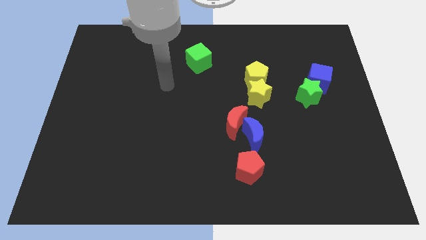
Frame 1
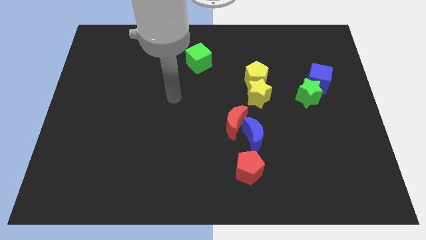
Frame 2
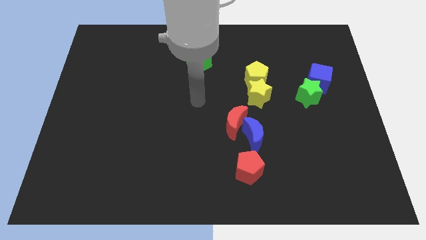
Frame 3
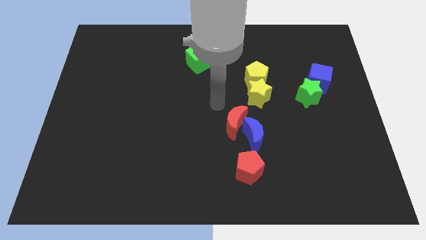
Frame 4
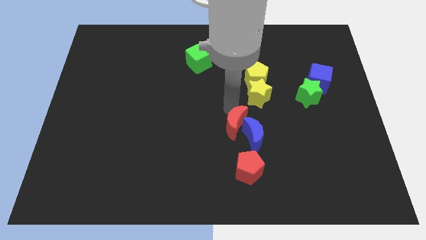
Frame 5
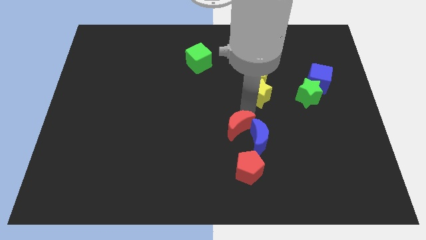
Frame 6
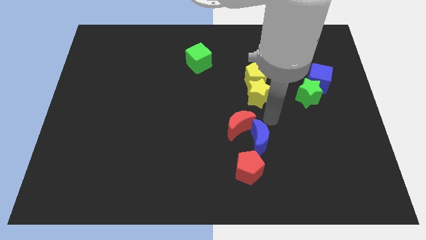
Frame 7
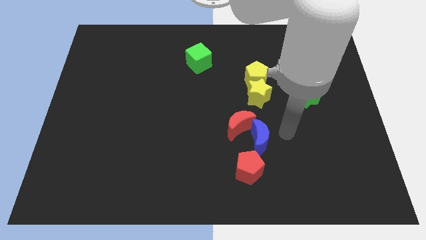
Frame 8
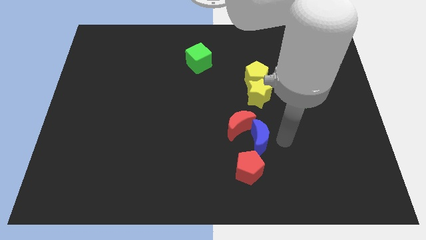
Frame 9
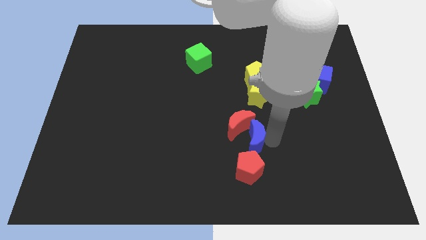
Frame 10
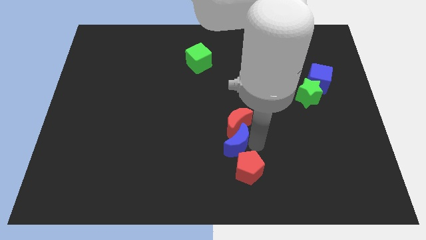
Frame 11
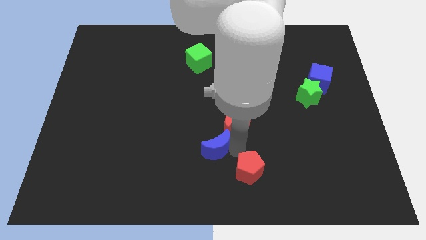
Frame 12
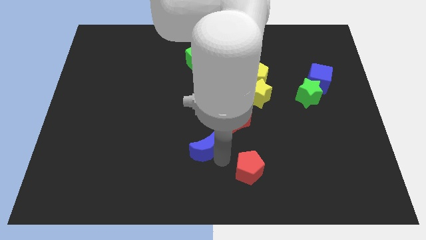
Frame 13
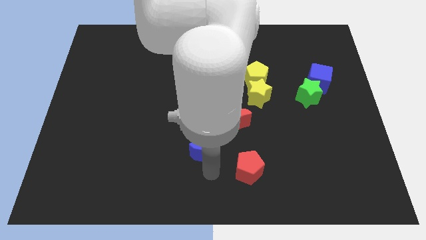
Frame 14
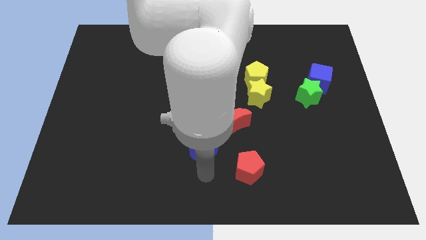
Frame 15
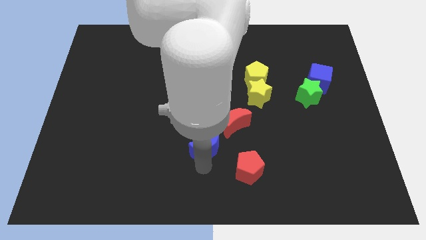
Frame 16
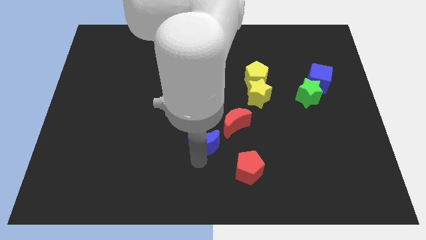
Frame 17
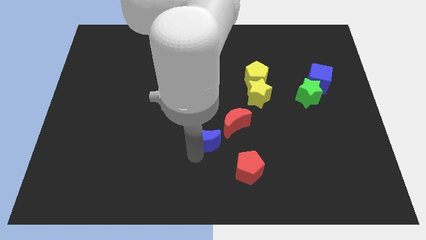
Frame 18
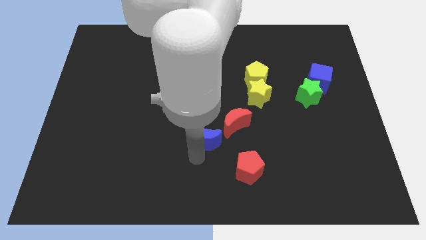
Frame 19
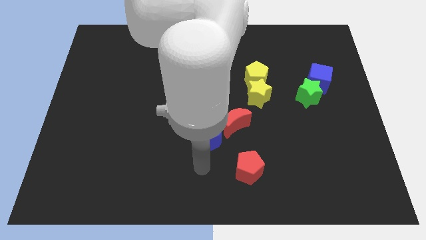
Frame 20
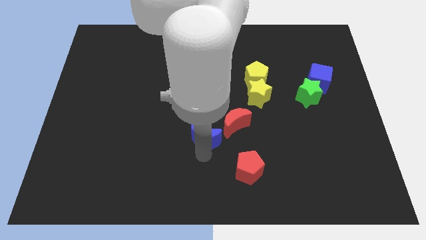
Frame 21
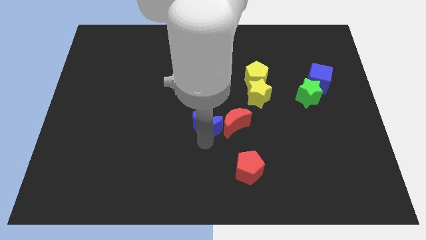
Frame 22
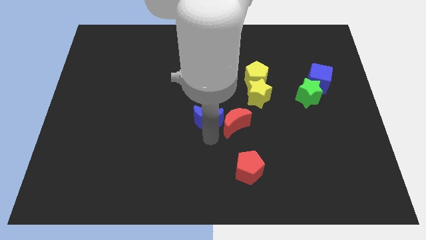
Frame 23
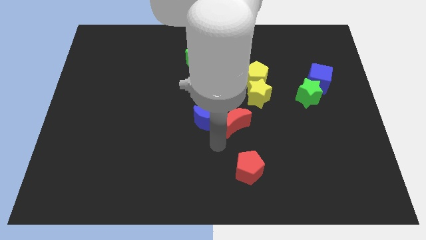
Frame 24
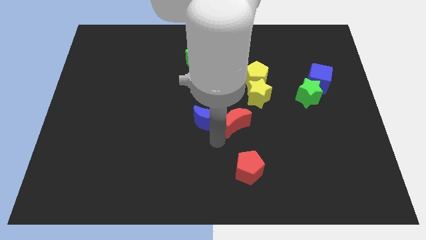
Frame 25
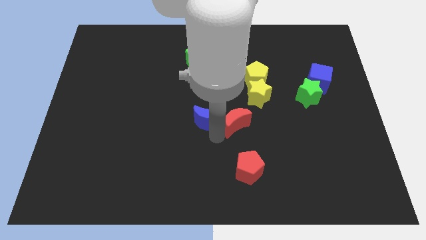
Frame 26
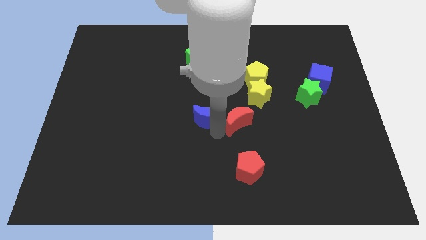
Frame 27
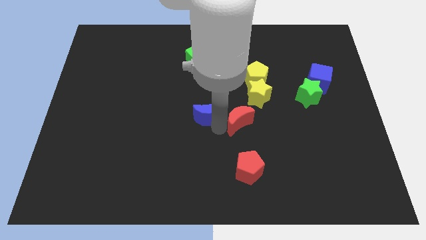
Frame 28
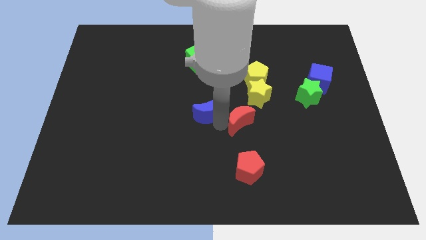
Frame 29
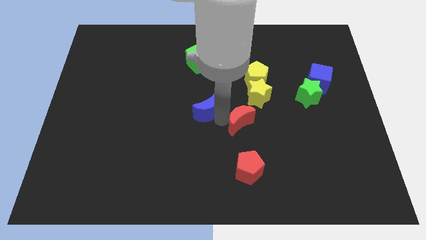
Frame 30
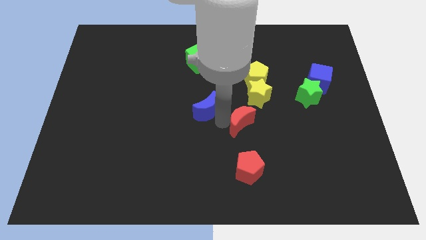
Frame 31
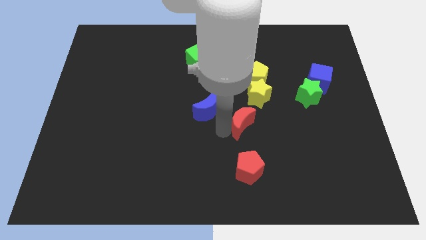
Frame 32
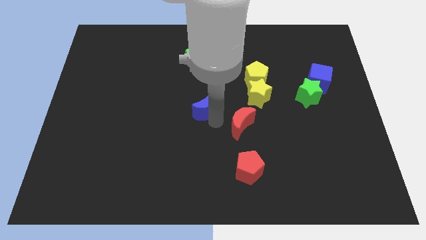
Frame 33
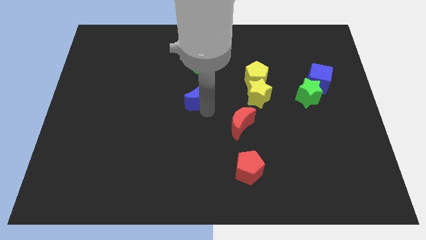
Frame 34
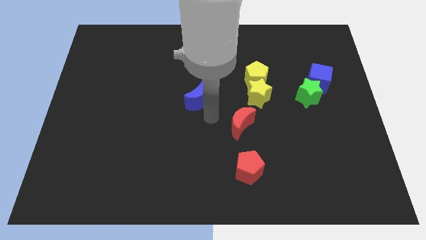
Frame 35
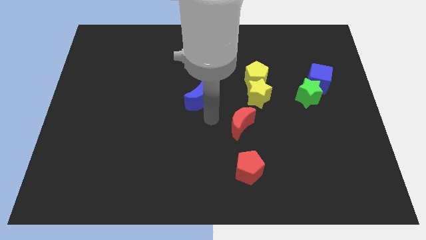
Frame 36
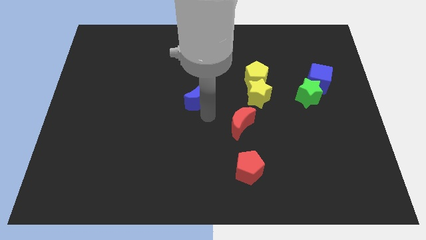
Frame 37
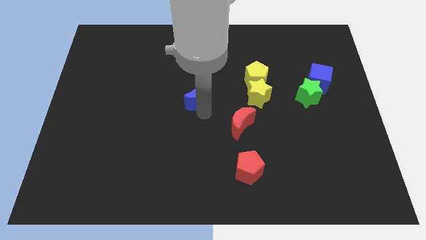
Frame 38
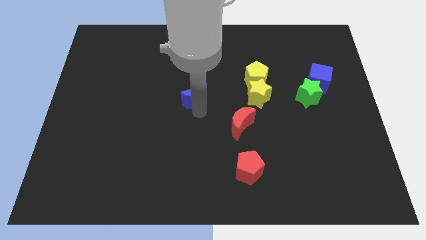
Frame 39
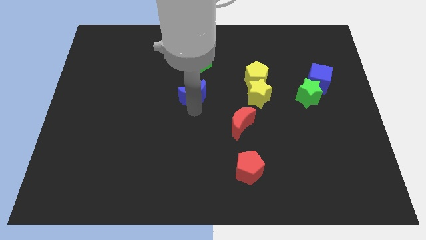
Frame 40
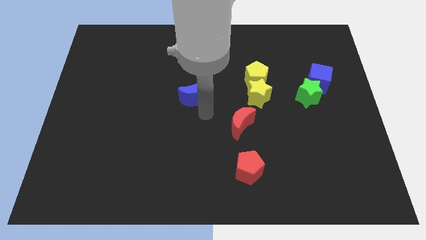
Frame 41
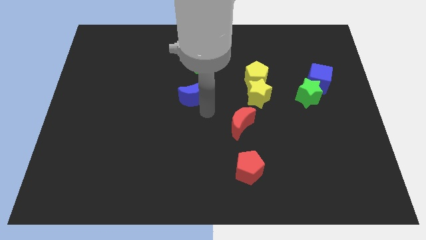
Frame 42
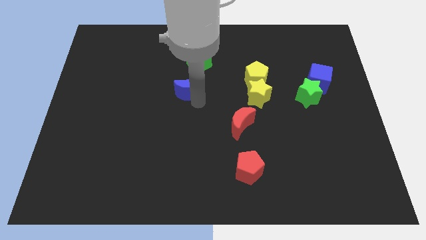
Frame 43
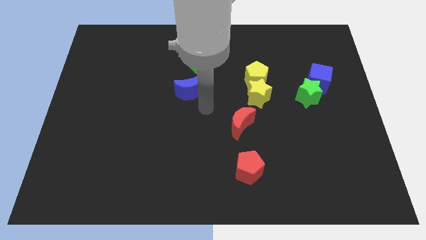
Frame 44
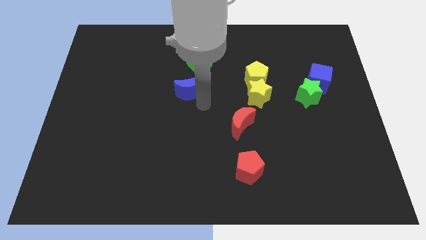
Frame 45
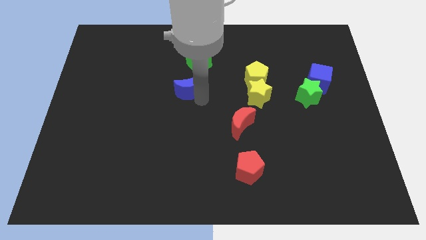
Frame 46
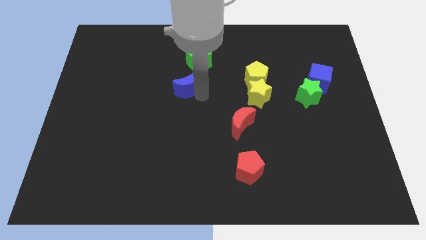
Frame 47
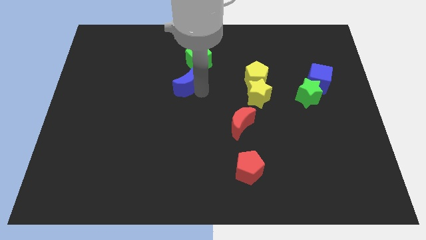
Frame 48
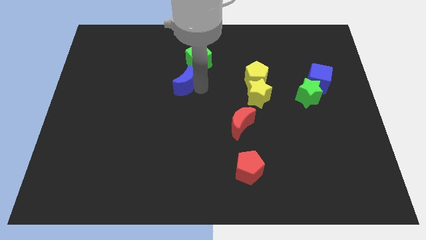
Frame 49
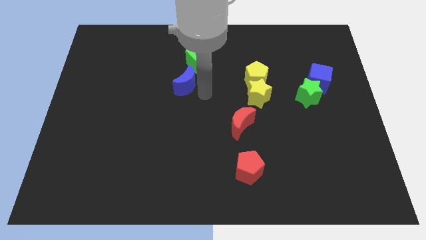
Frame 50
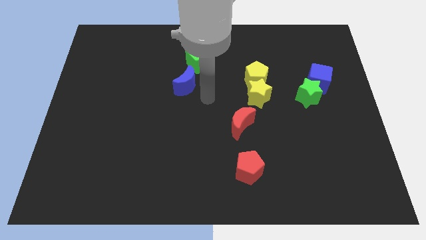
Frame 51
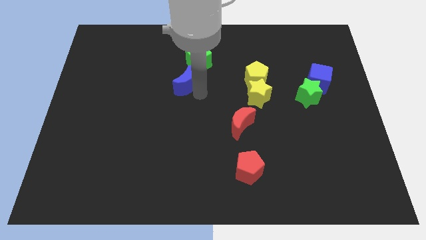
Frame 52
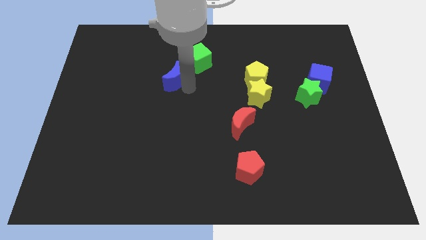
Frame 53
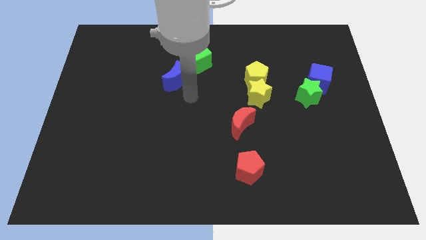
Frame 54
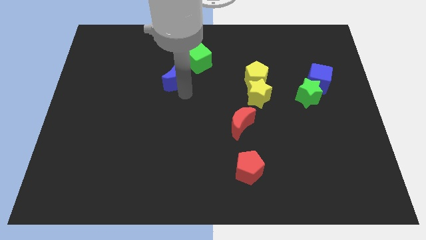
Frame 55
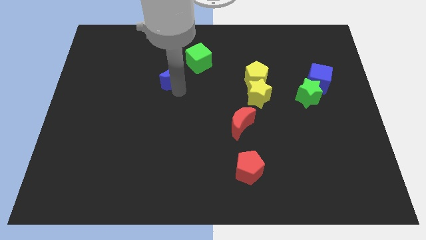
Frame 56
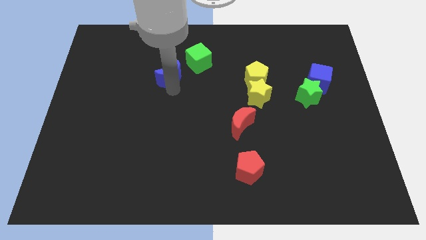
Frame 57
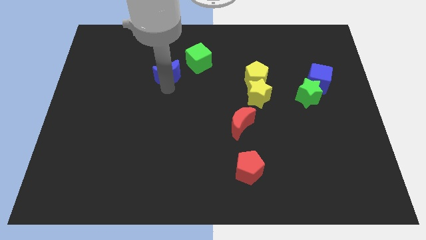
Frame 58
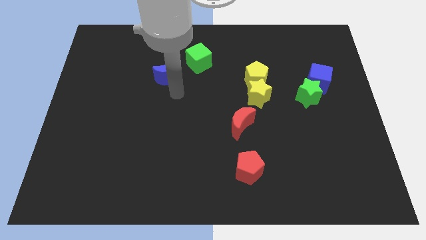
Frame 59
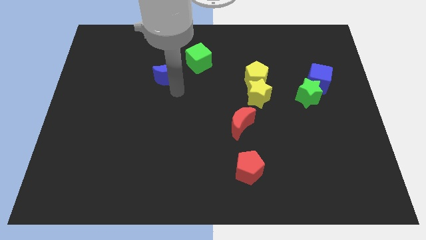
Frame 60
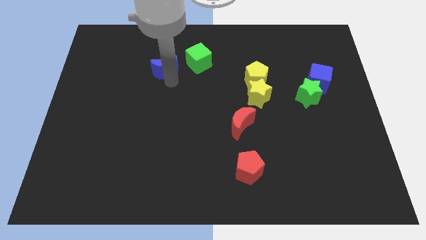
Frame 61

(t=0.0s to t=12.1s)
push the blue moon to the left side of the green cube

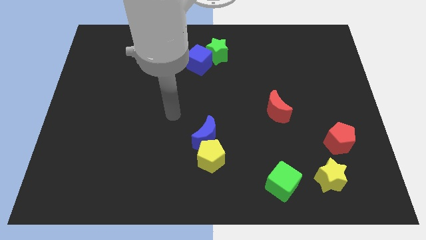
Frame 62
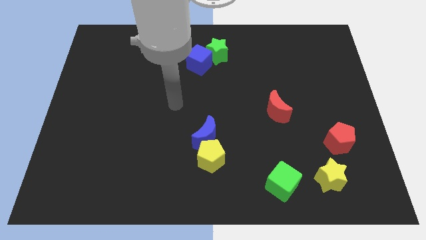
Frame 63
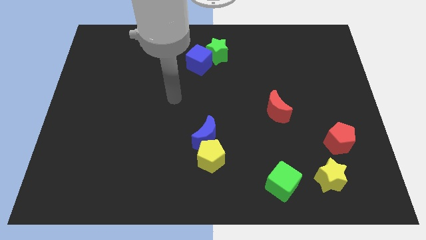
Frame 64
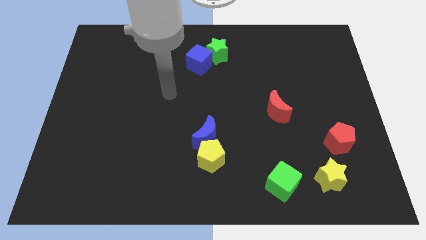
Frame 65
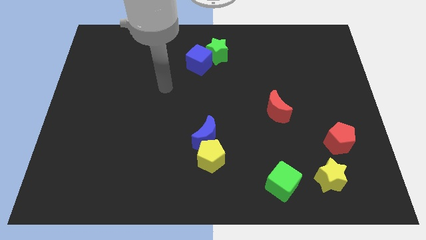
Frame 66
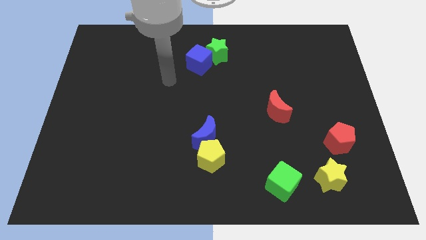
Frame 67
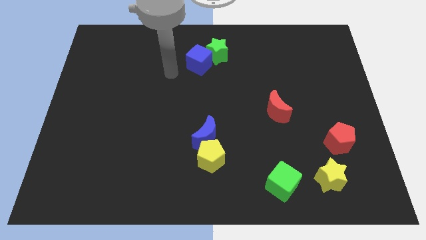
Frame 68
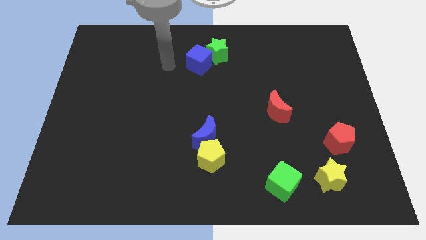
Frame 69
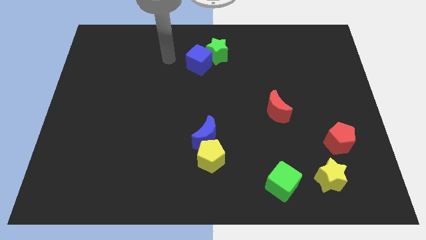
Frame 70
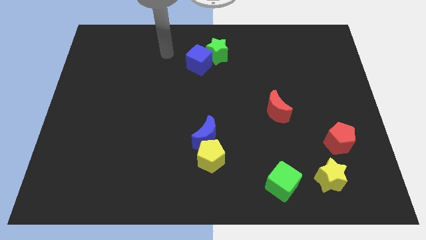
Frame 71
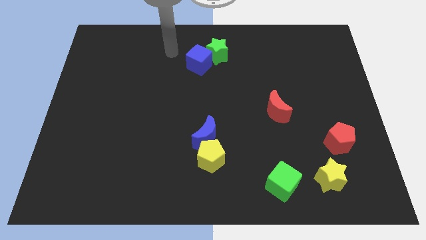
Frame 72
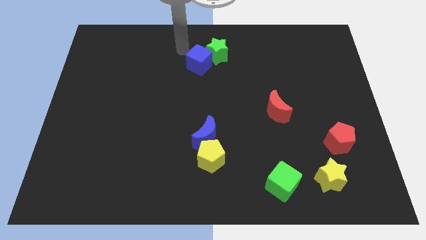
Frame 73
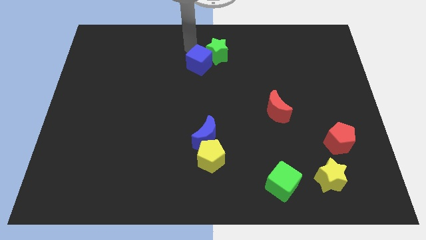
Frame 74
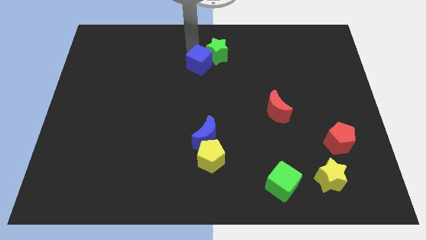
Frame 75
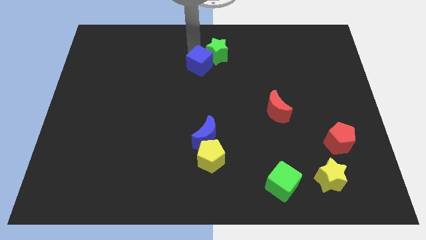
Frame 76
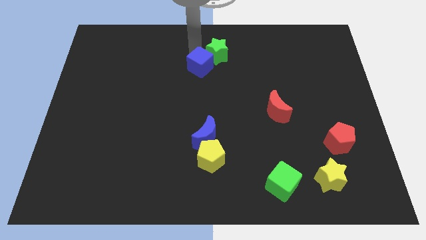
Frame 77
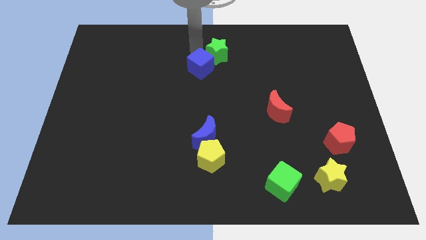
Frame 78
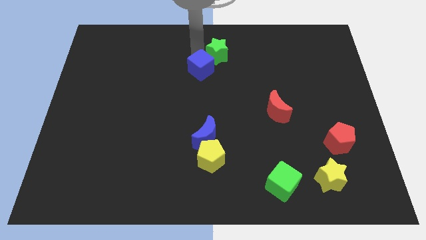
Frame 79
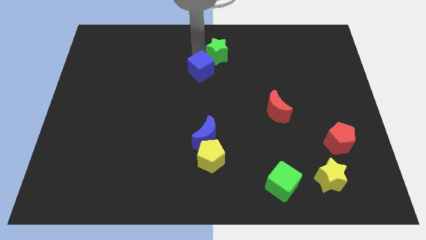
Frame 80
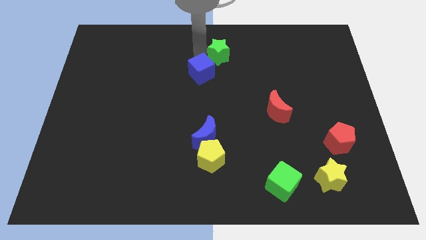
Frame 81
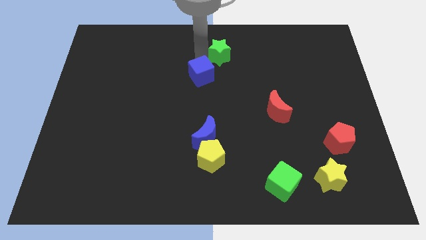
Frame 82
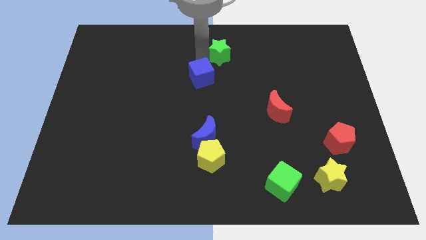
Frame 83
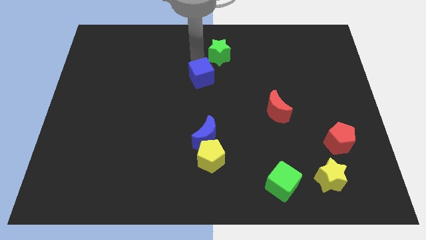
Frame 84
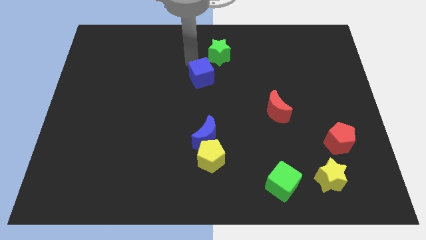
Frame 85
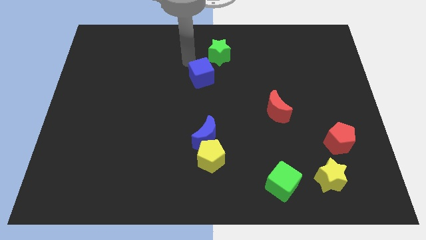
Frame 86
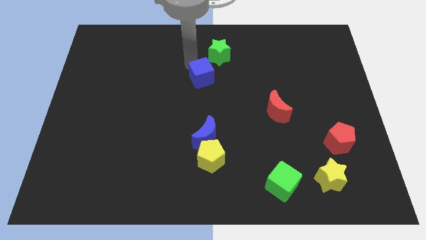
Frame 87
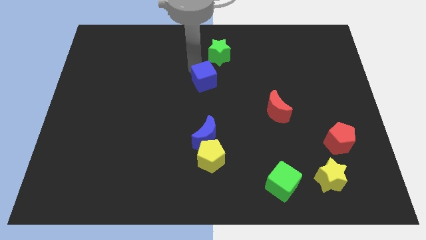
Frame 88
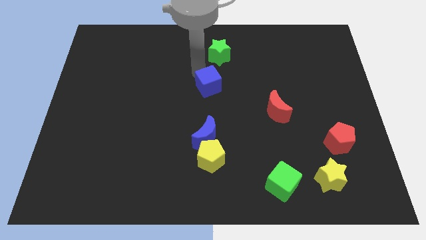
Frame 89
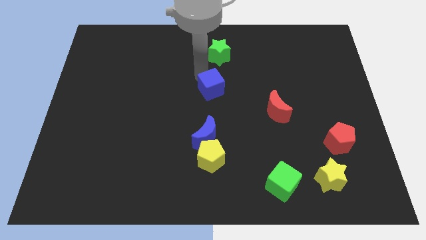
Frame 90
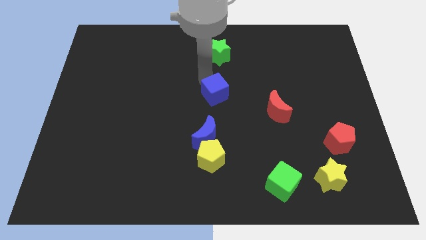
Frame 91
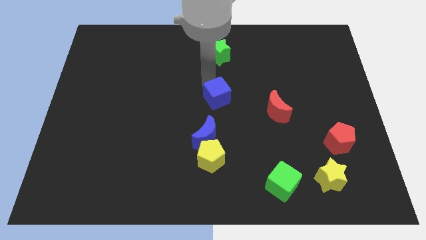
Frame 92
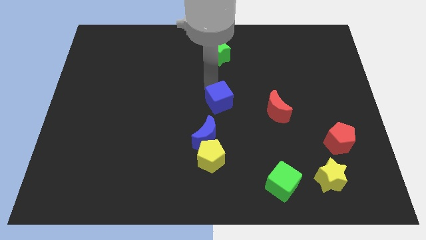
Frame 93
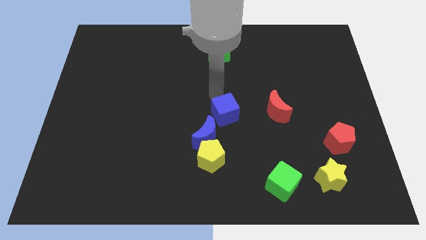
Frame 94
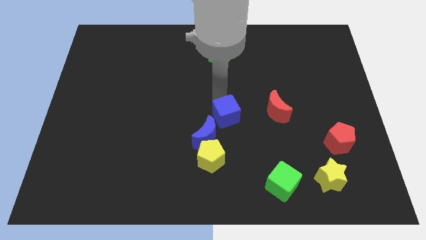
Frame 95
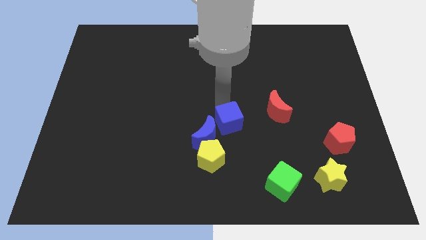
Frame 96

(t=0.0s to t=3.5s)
push the blue cube to the top right side of the yellow pentagon
